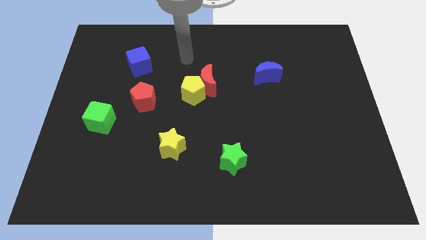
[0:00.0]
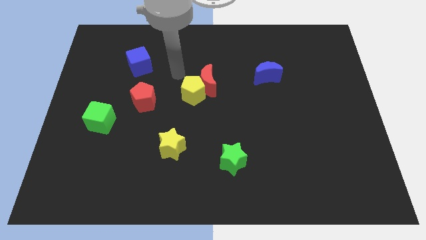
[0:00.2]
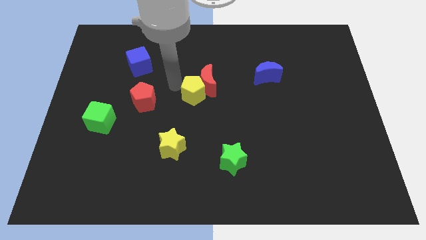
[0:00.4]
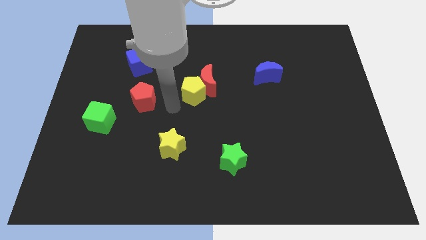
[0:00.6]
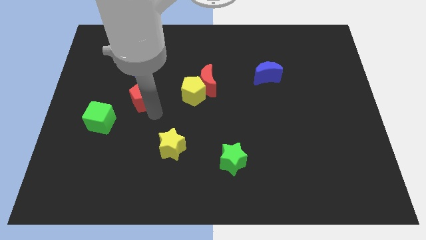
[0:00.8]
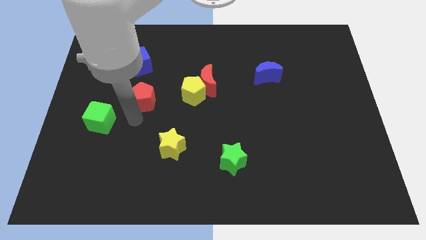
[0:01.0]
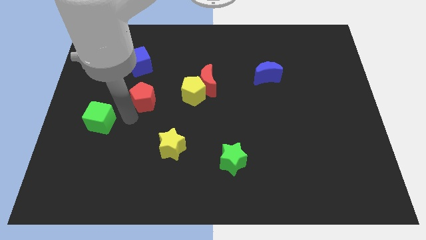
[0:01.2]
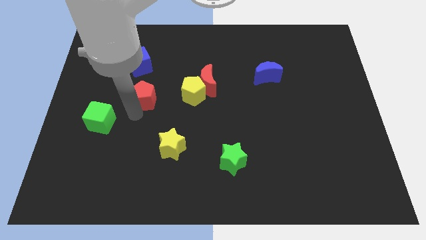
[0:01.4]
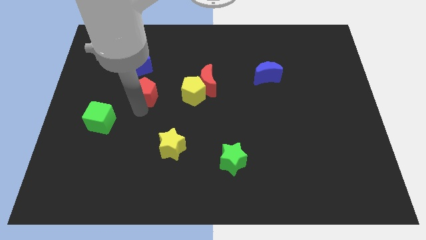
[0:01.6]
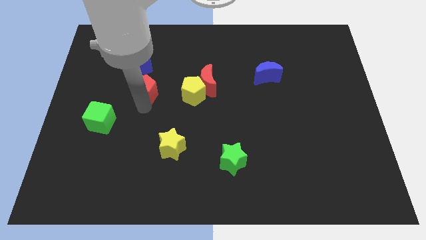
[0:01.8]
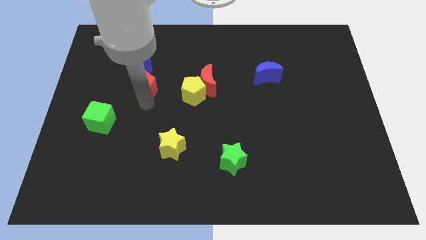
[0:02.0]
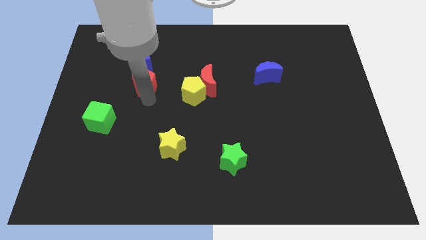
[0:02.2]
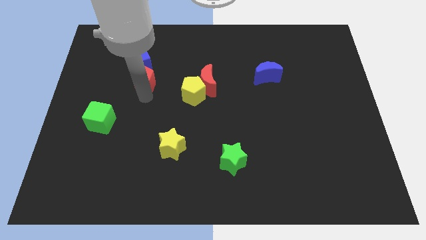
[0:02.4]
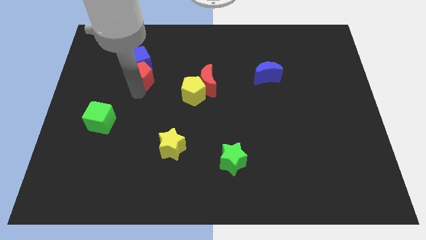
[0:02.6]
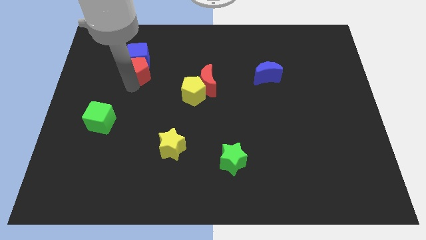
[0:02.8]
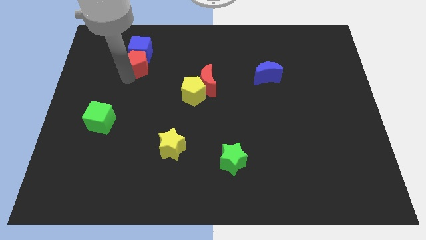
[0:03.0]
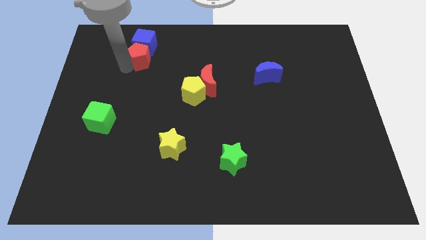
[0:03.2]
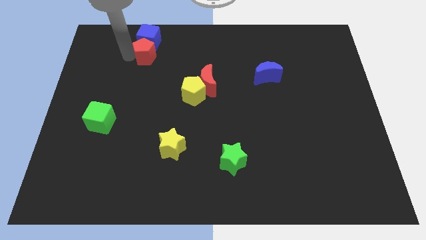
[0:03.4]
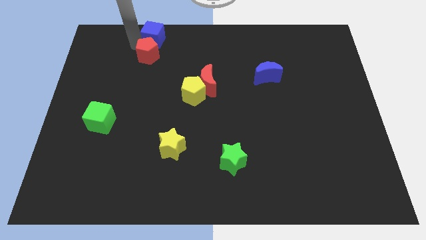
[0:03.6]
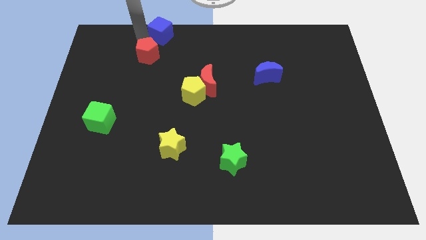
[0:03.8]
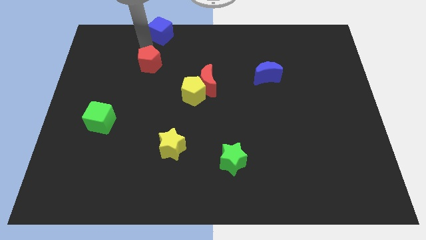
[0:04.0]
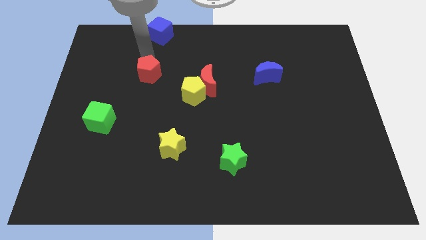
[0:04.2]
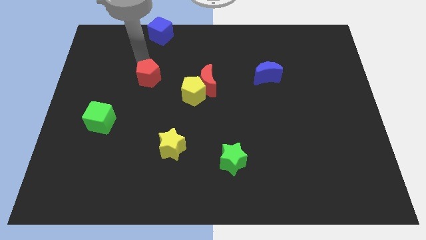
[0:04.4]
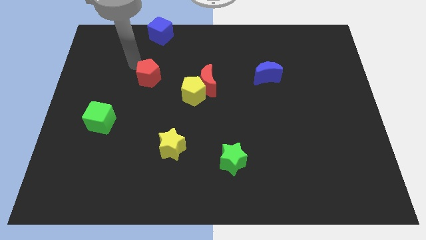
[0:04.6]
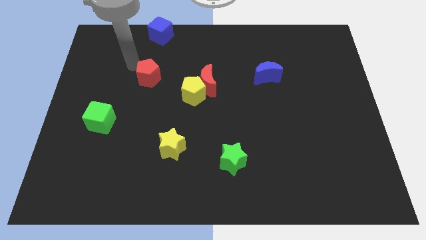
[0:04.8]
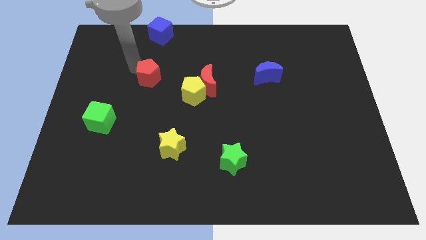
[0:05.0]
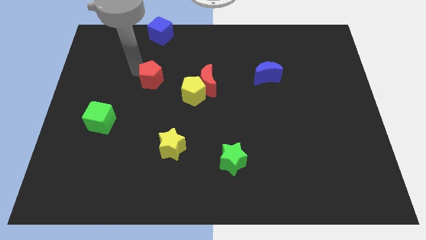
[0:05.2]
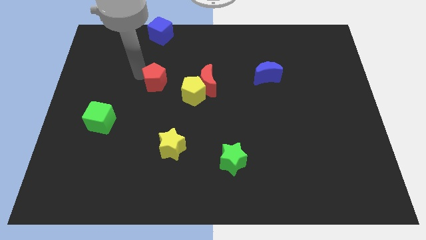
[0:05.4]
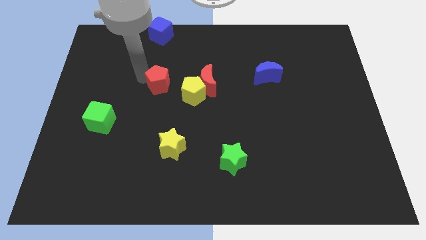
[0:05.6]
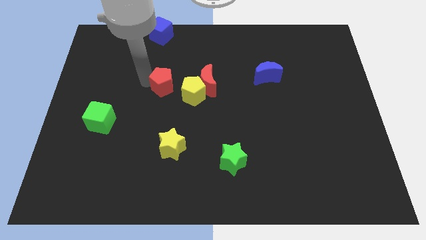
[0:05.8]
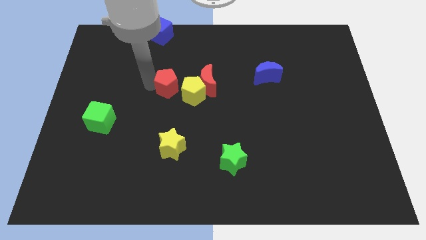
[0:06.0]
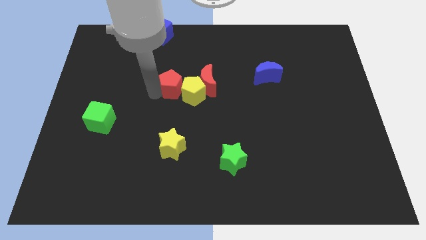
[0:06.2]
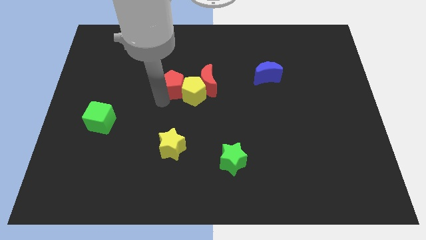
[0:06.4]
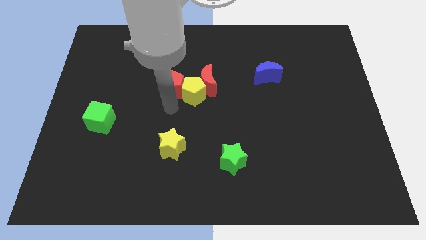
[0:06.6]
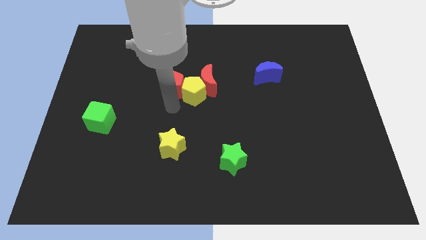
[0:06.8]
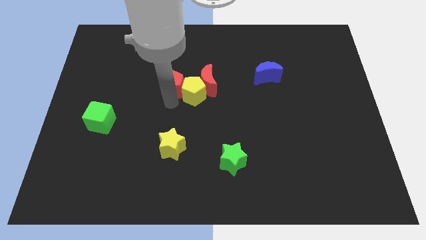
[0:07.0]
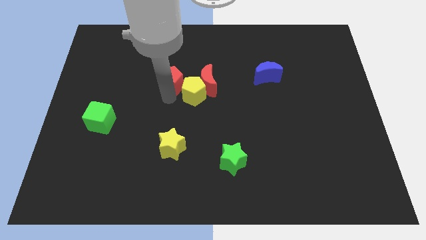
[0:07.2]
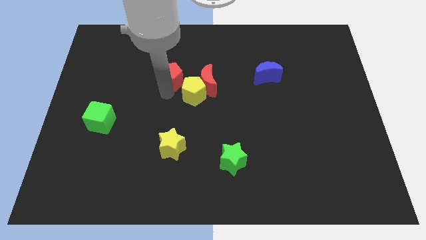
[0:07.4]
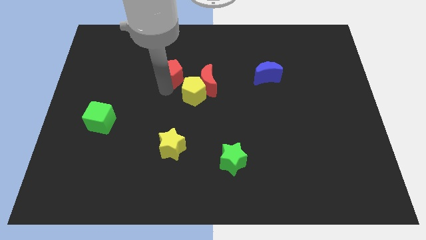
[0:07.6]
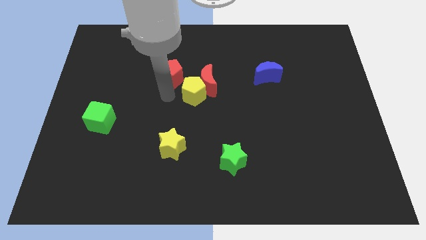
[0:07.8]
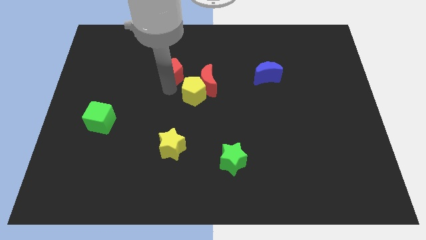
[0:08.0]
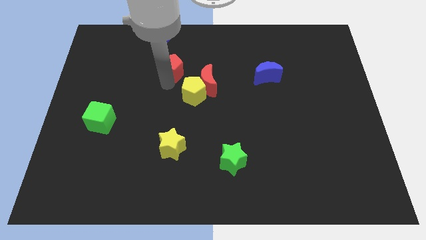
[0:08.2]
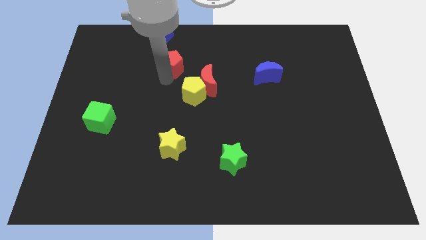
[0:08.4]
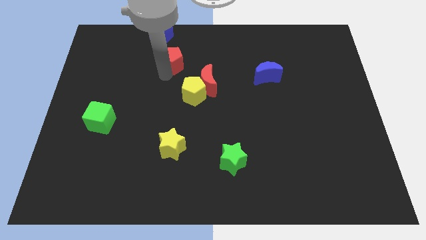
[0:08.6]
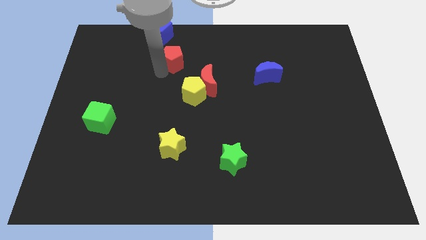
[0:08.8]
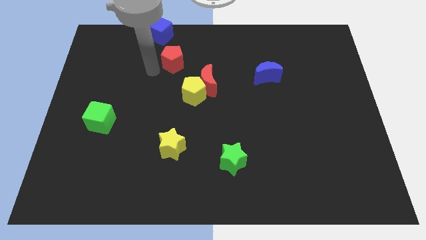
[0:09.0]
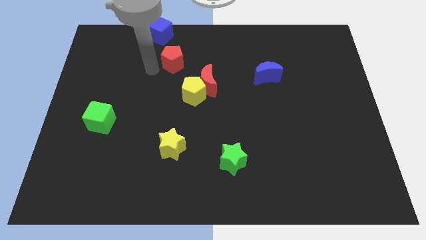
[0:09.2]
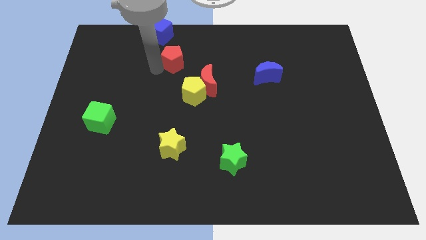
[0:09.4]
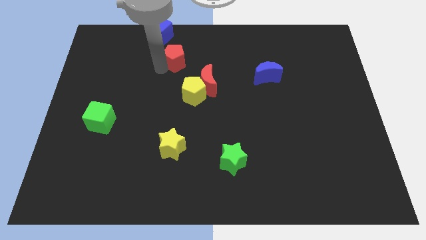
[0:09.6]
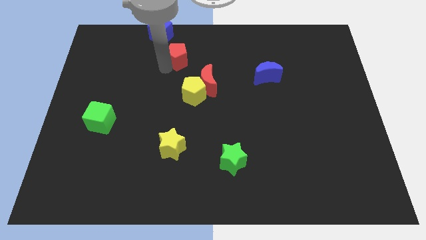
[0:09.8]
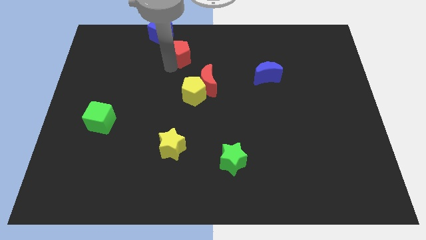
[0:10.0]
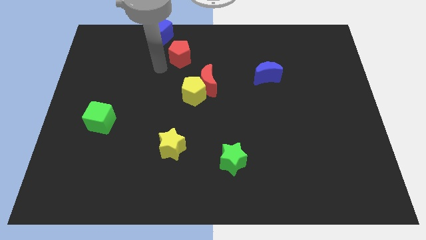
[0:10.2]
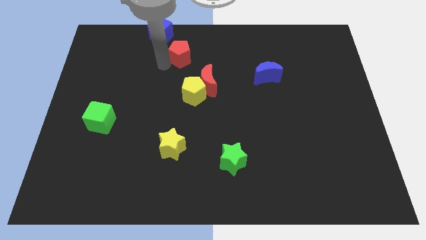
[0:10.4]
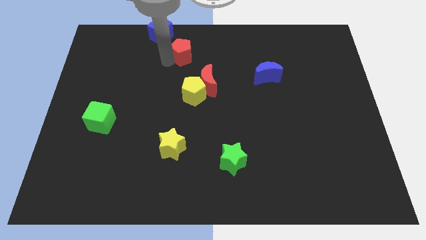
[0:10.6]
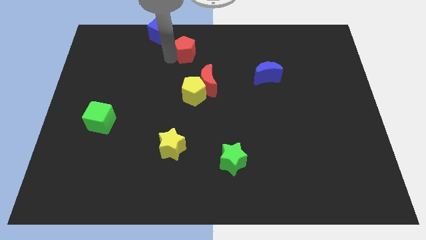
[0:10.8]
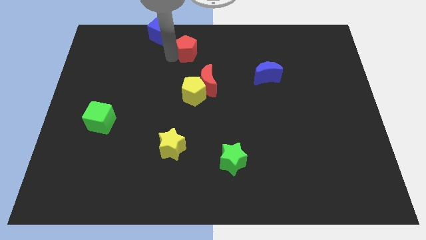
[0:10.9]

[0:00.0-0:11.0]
put the red pentagon to the top side

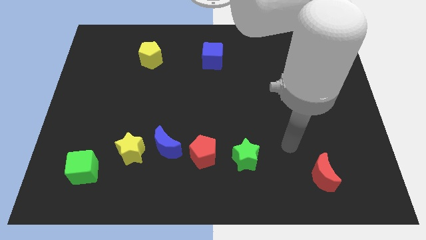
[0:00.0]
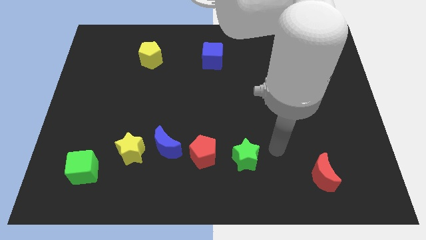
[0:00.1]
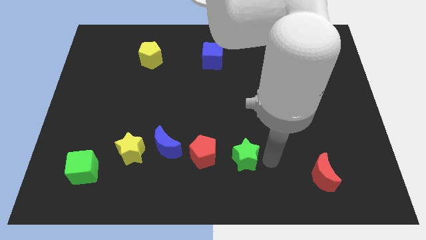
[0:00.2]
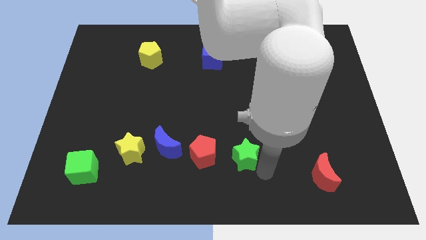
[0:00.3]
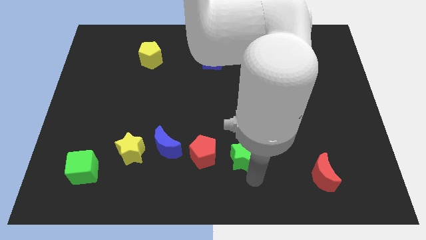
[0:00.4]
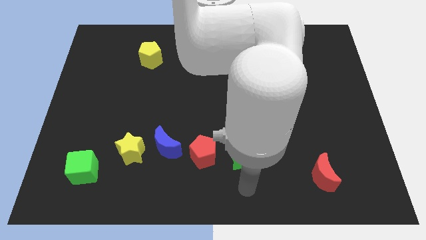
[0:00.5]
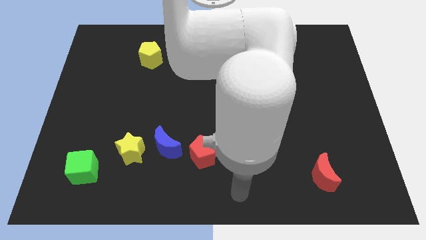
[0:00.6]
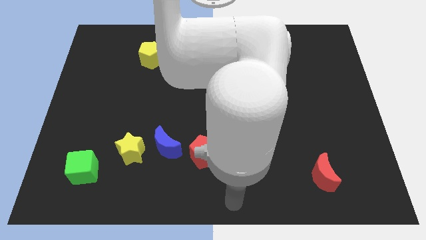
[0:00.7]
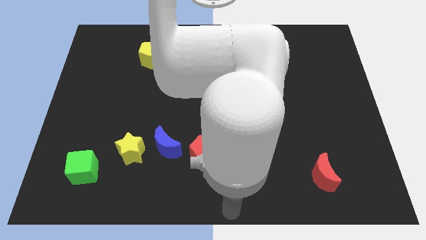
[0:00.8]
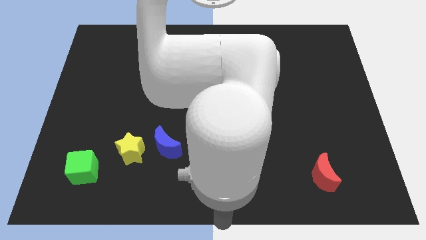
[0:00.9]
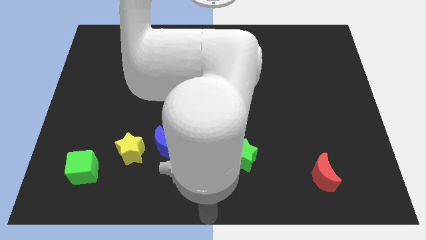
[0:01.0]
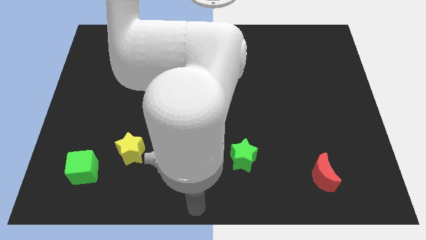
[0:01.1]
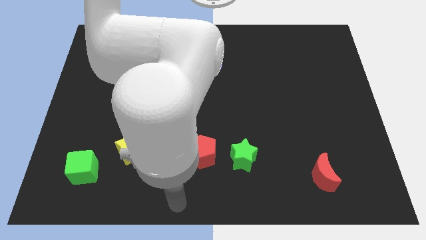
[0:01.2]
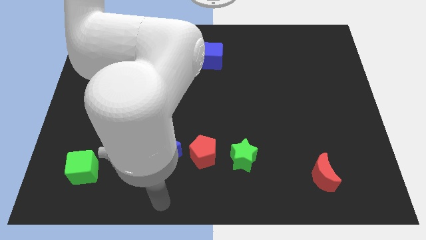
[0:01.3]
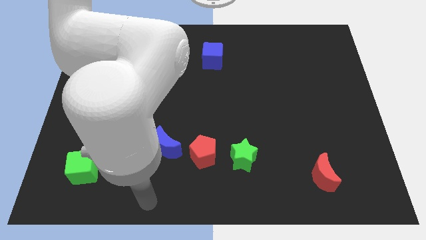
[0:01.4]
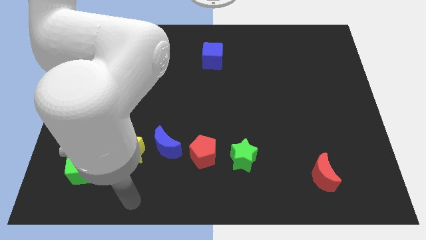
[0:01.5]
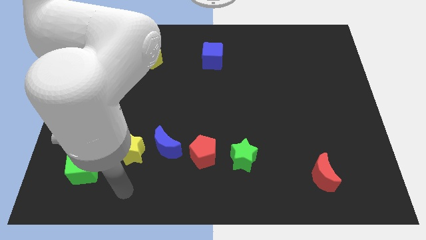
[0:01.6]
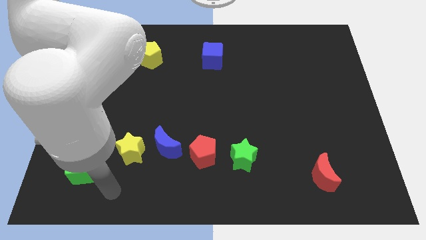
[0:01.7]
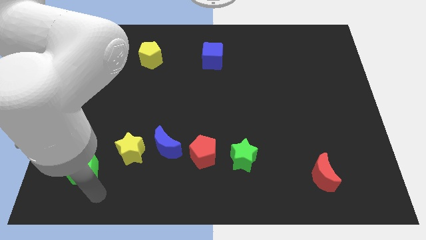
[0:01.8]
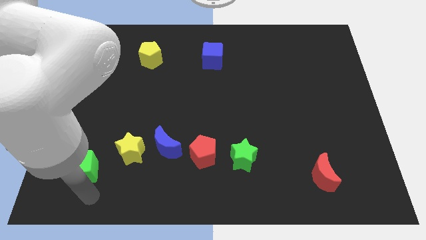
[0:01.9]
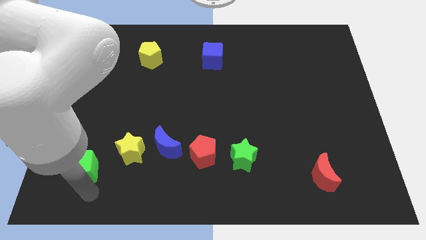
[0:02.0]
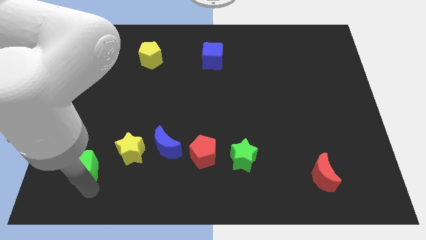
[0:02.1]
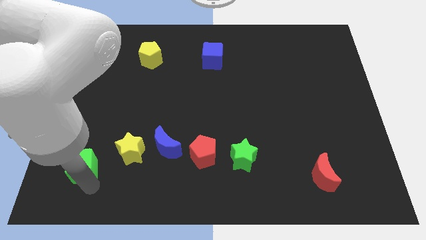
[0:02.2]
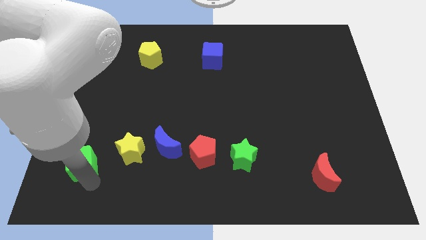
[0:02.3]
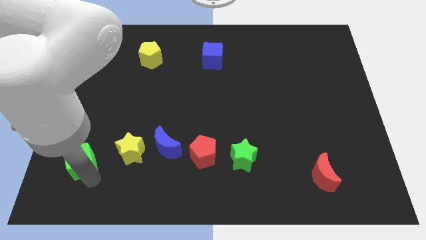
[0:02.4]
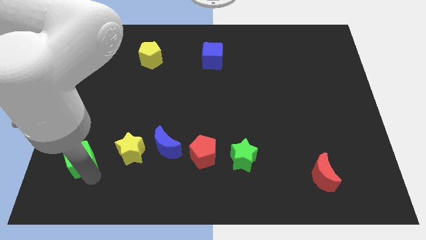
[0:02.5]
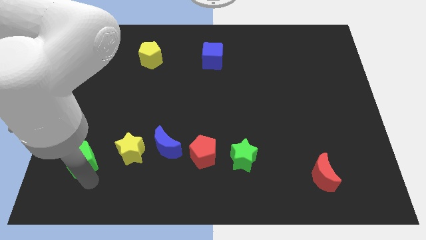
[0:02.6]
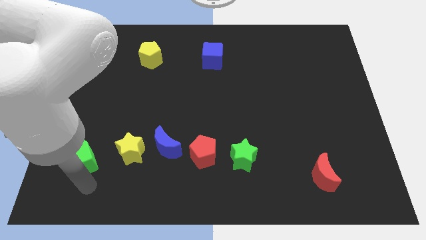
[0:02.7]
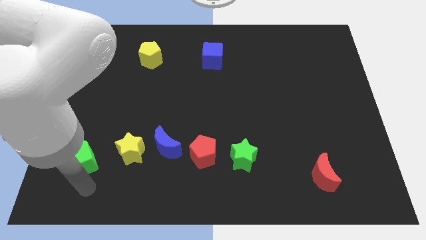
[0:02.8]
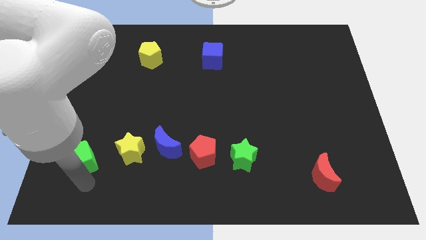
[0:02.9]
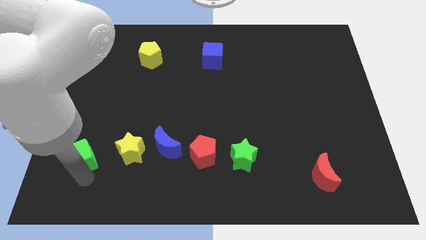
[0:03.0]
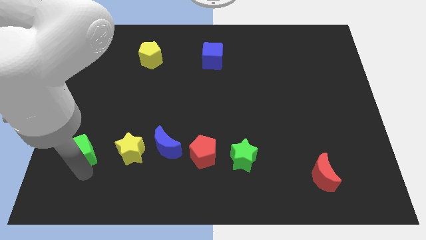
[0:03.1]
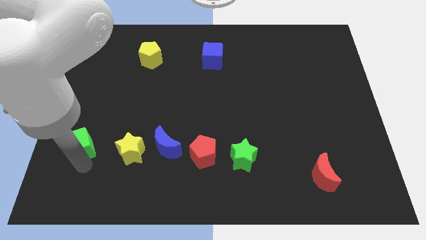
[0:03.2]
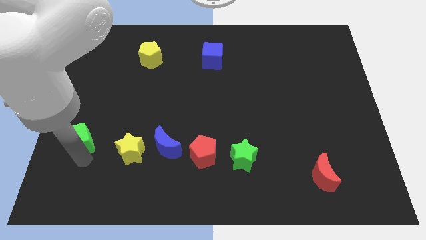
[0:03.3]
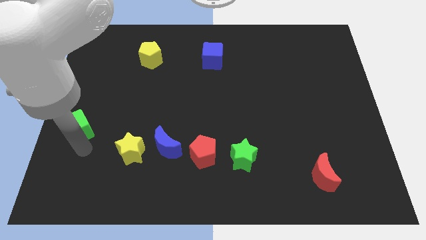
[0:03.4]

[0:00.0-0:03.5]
slide the green cube to the left side
